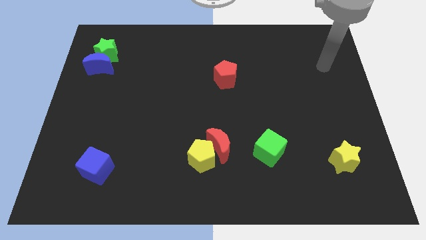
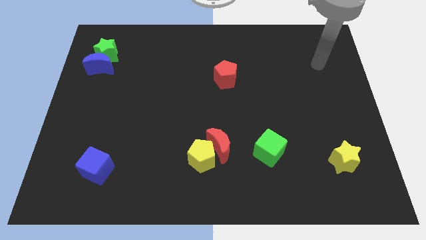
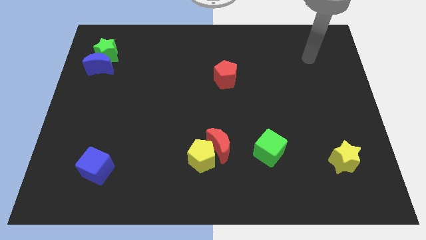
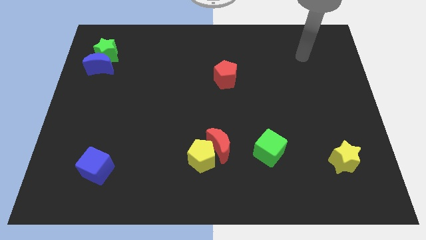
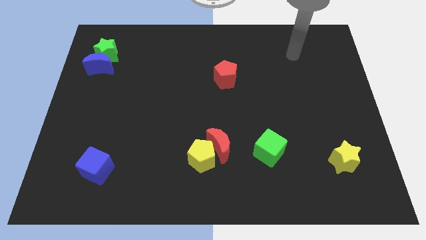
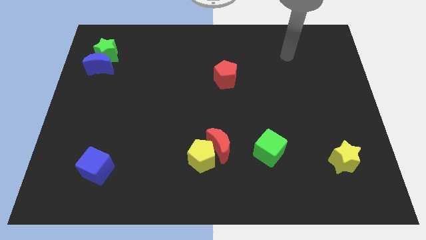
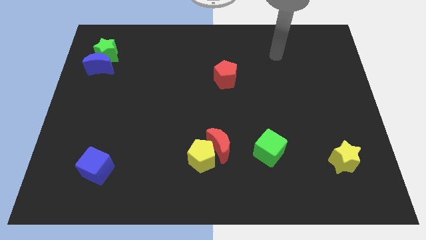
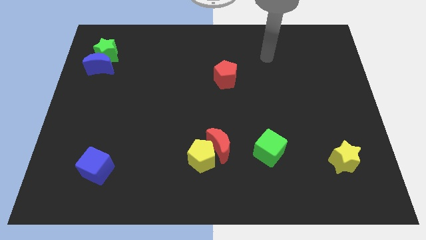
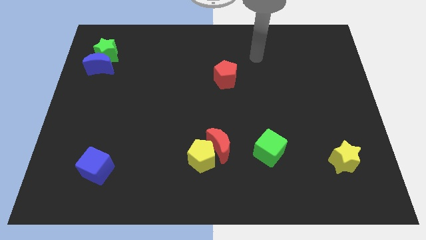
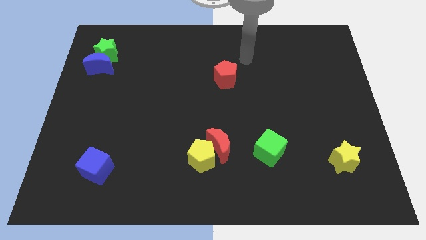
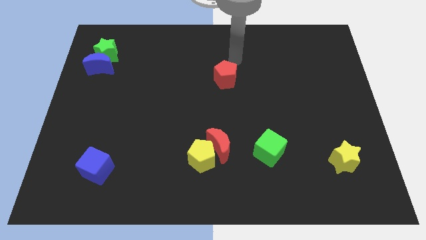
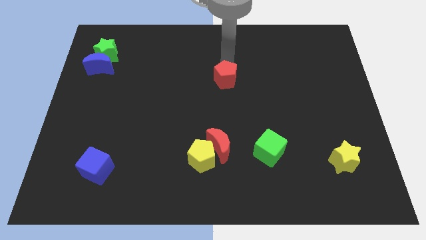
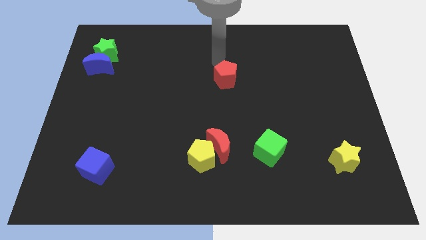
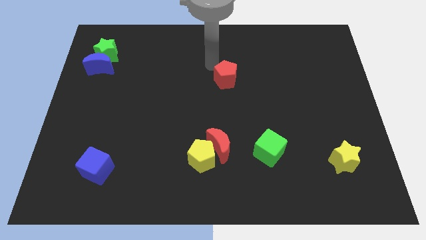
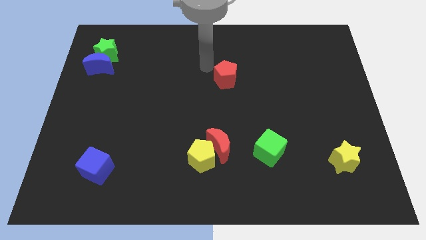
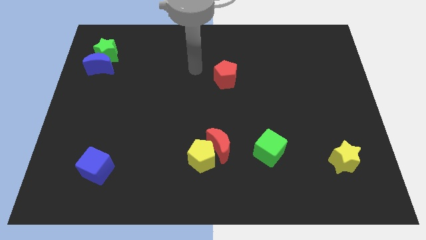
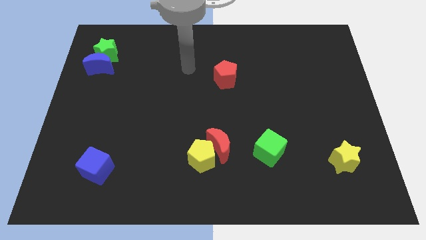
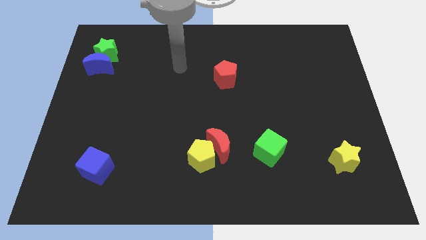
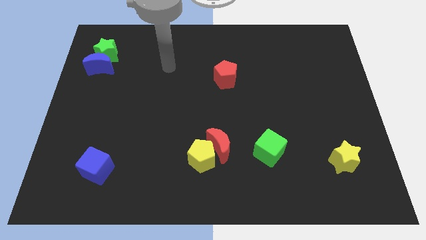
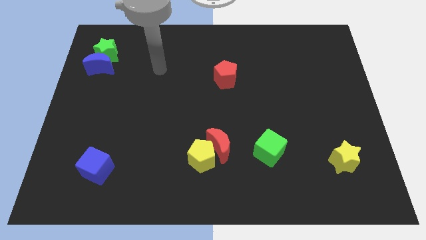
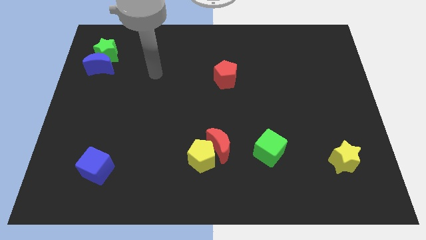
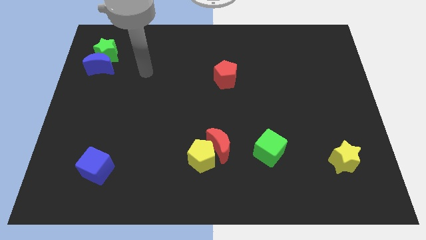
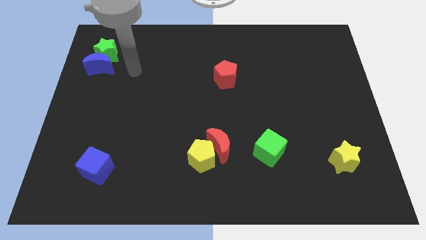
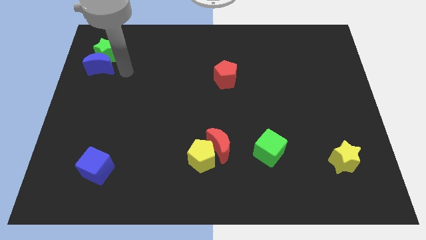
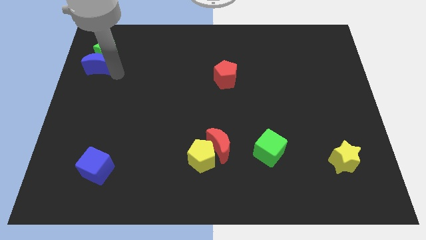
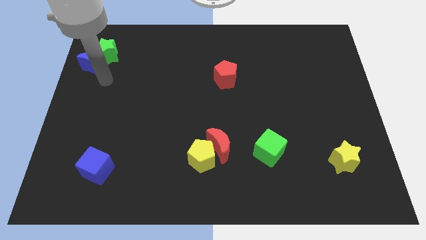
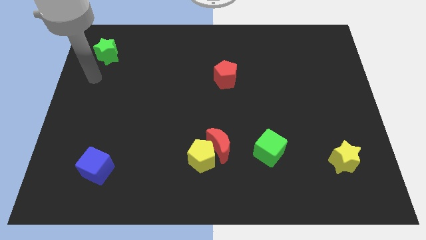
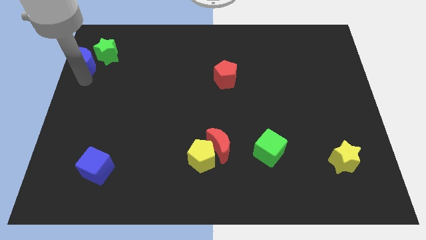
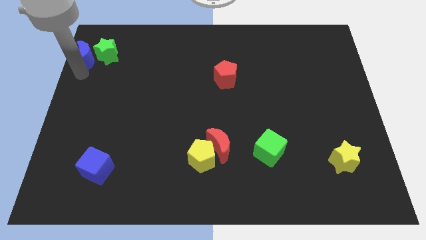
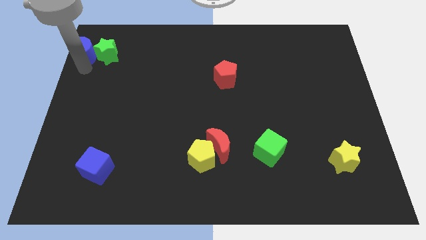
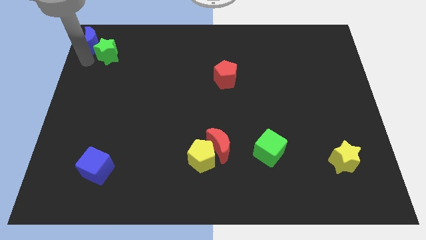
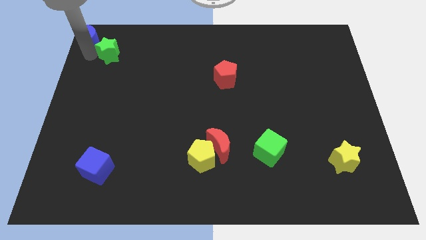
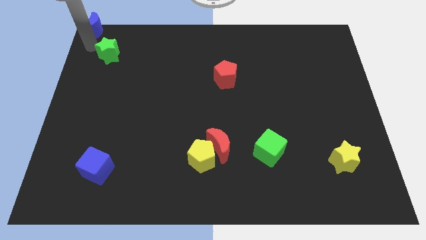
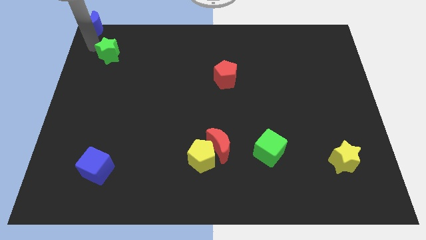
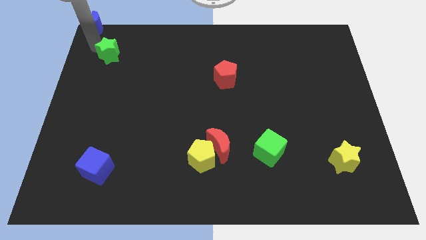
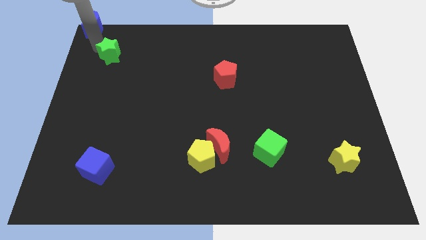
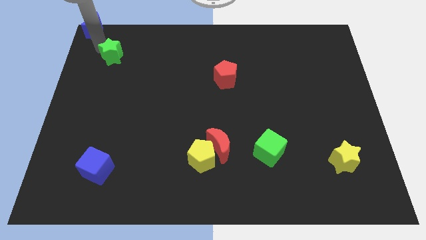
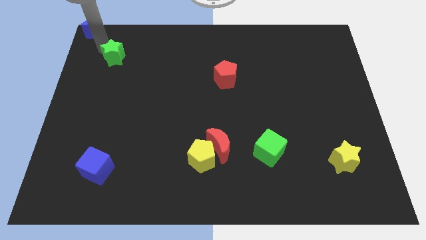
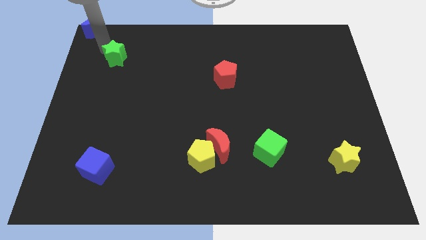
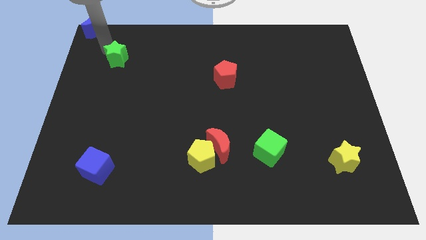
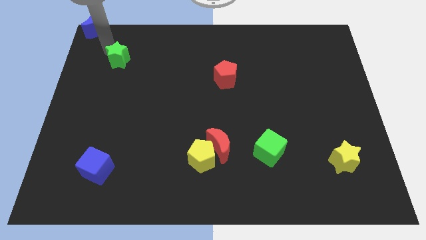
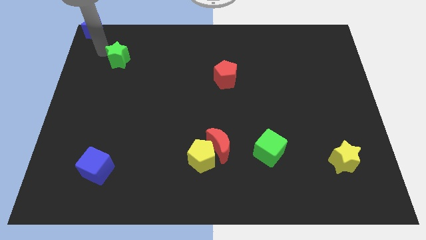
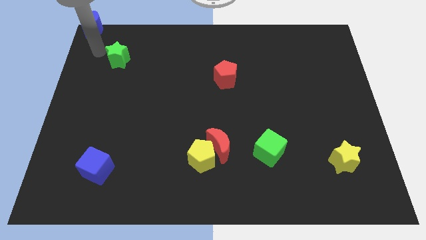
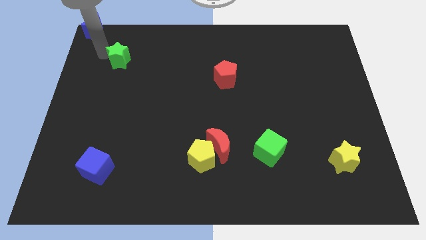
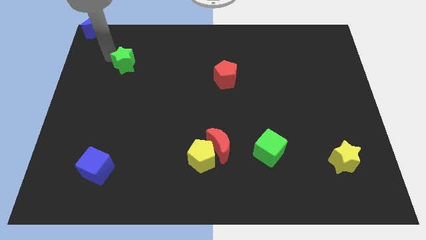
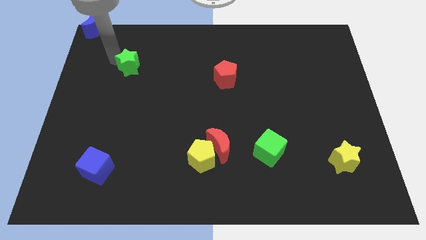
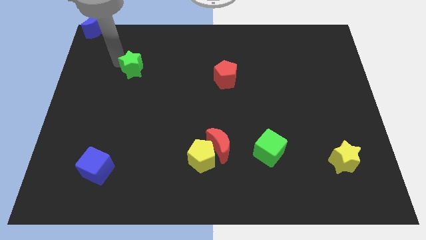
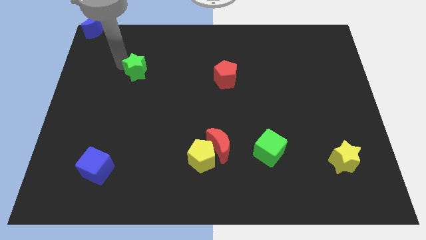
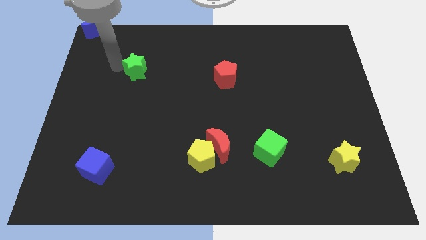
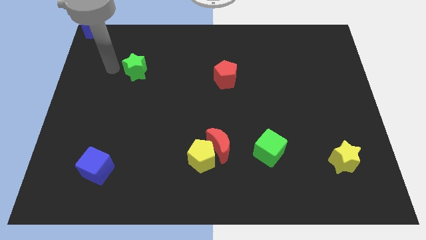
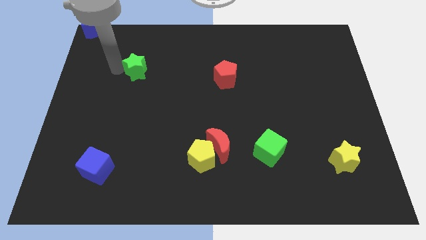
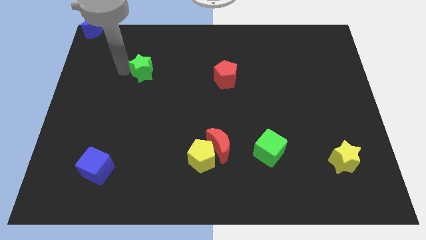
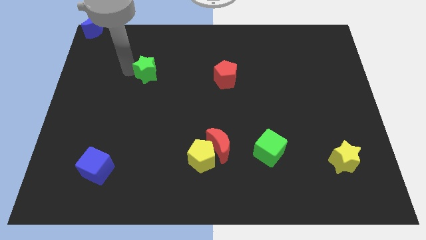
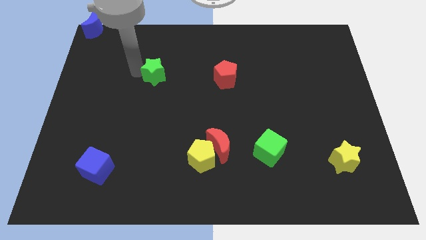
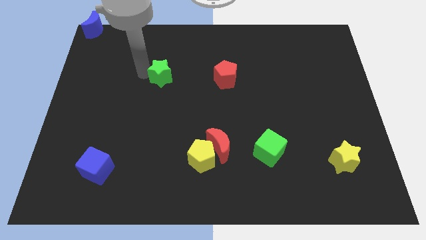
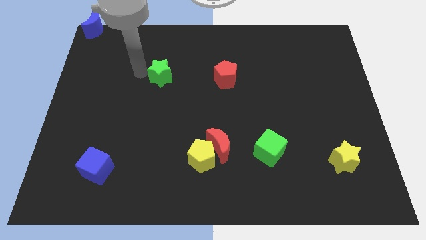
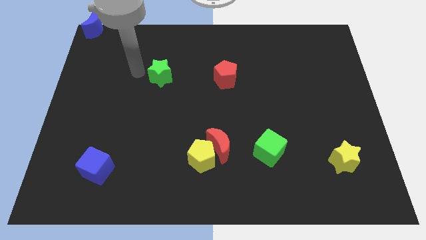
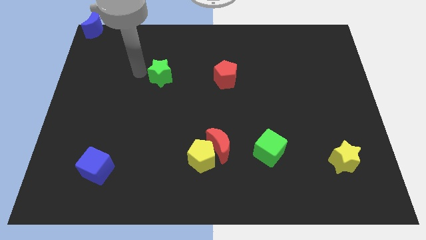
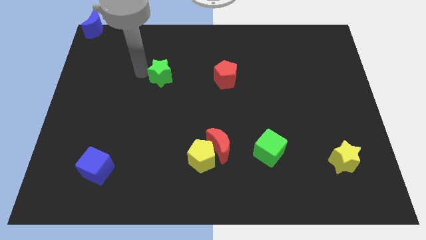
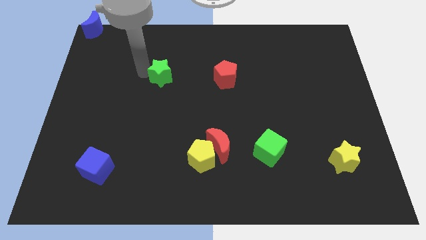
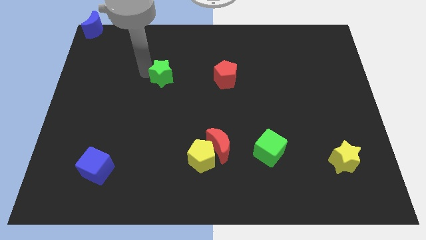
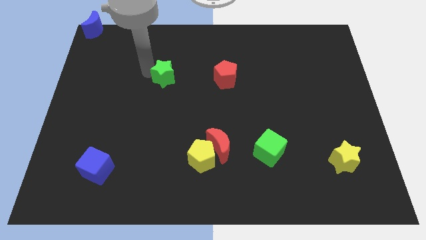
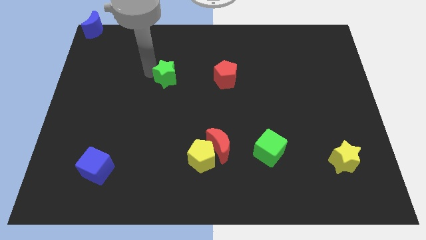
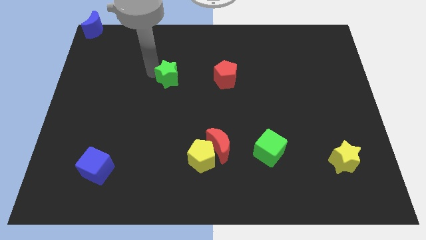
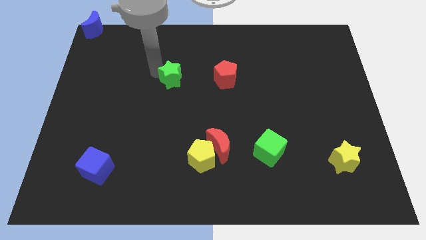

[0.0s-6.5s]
push the green star to the center

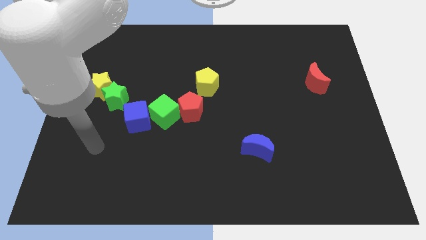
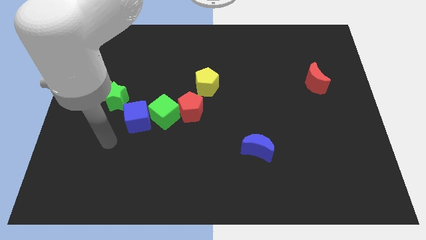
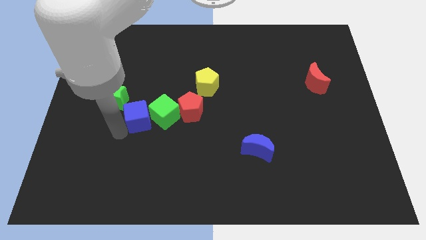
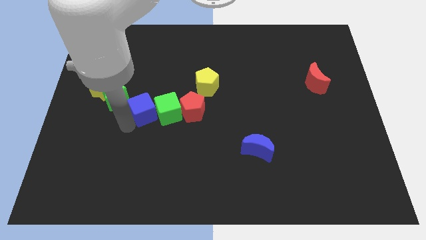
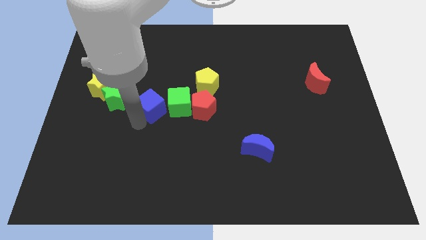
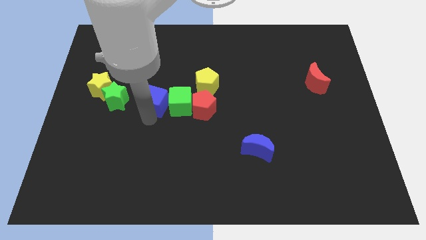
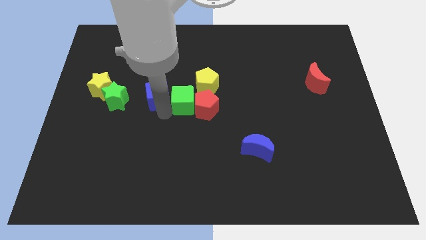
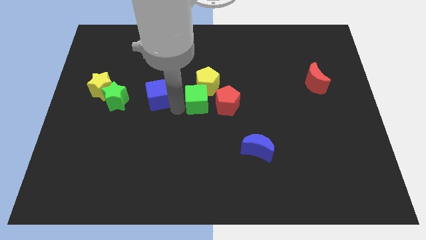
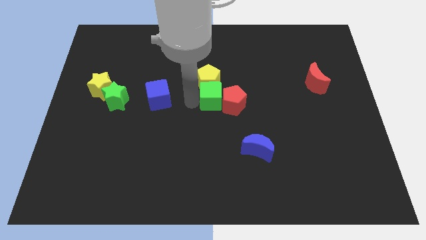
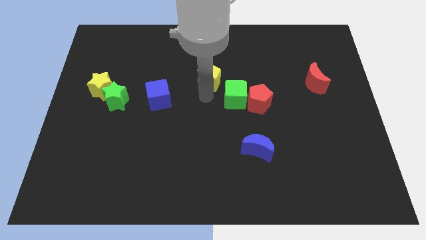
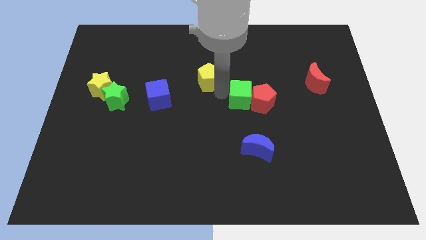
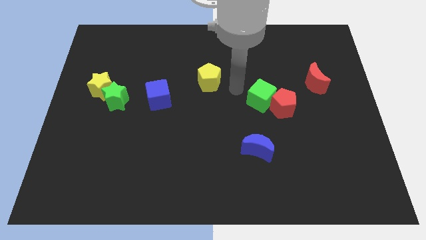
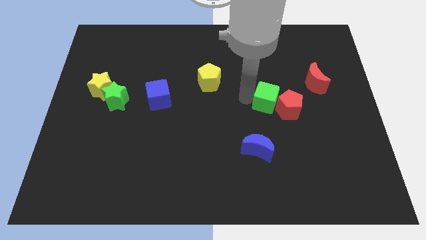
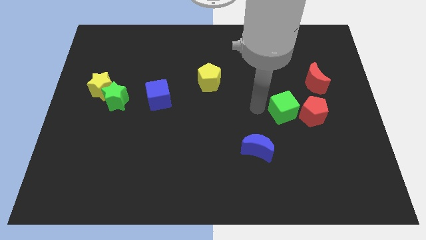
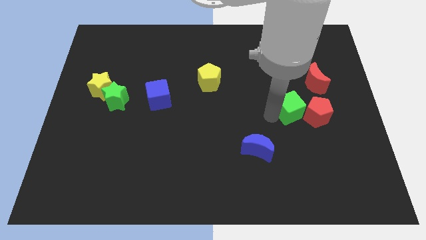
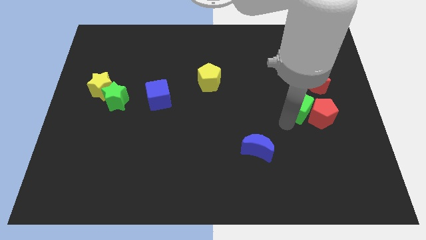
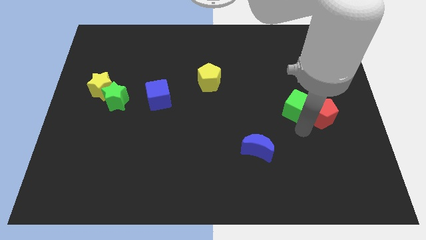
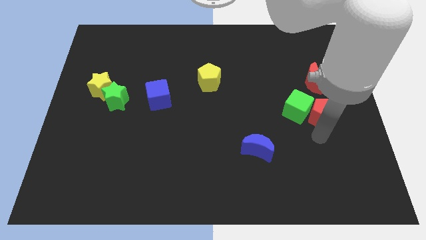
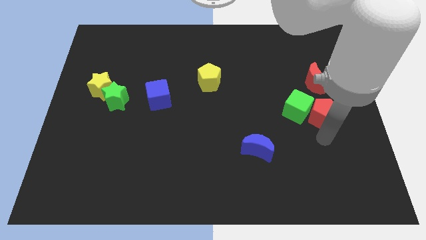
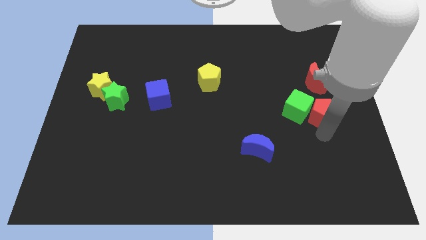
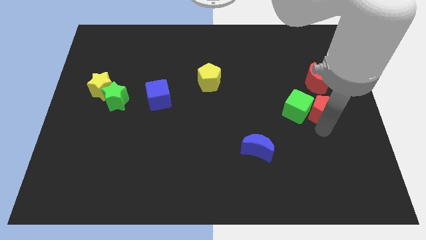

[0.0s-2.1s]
push the red pentagon to the center right
